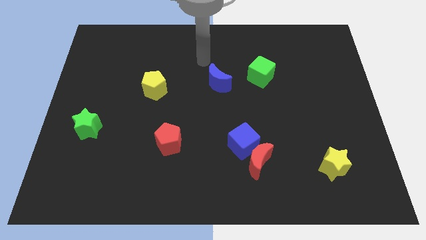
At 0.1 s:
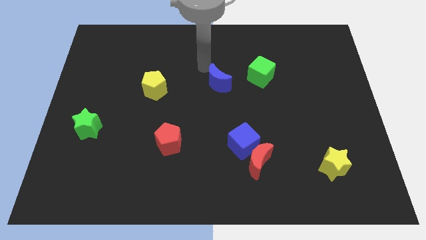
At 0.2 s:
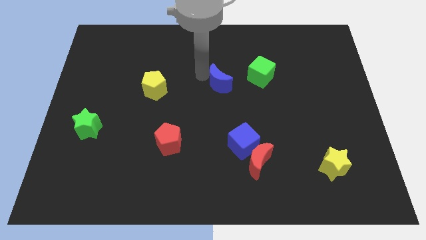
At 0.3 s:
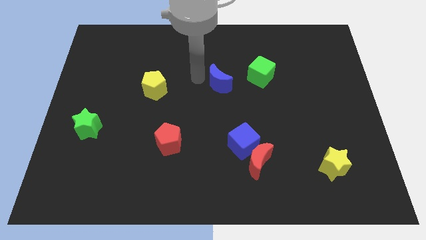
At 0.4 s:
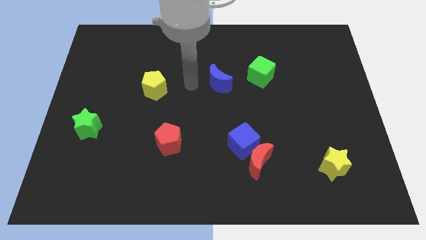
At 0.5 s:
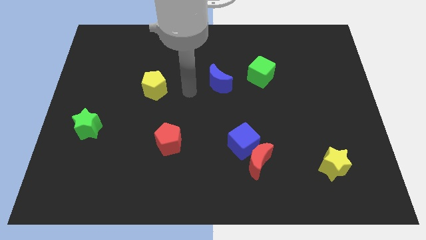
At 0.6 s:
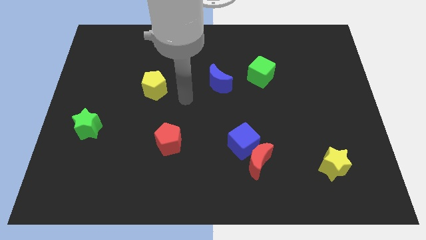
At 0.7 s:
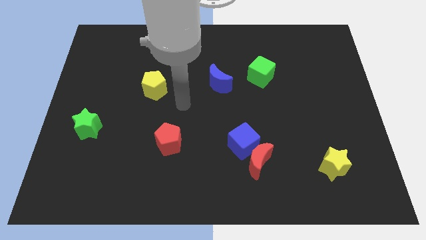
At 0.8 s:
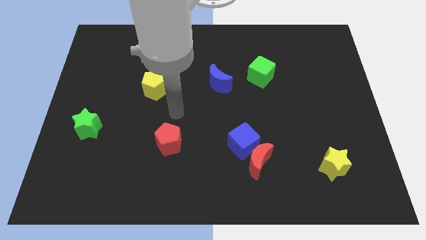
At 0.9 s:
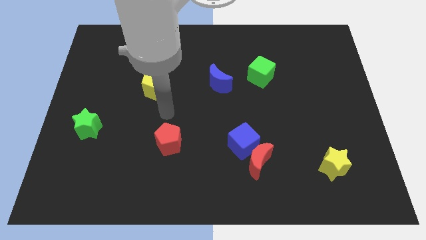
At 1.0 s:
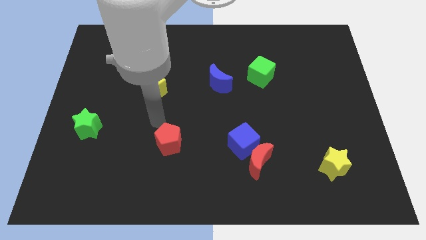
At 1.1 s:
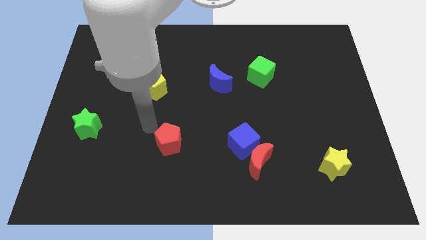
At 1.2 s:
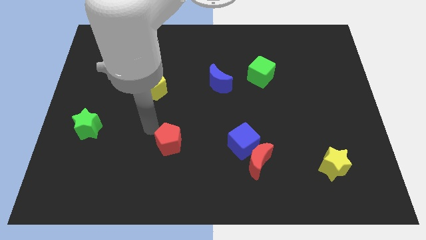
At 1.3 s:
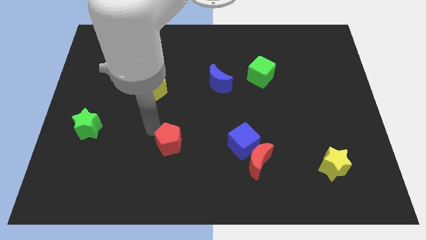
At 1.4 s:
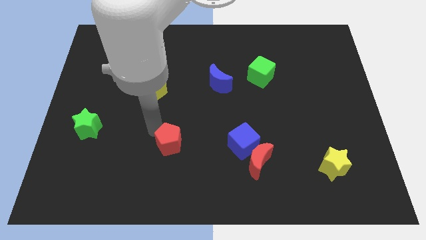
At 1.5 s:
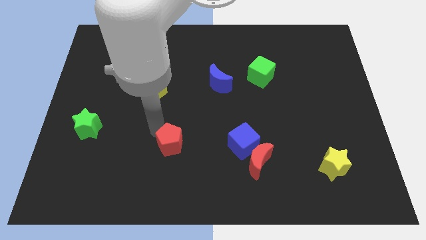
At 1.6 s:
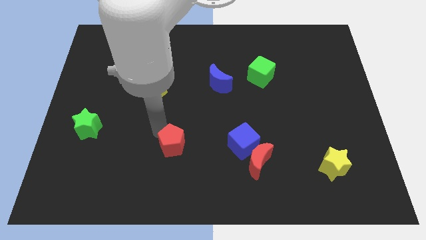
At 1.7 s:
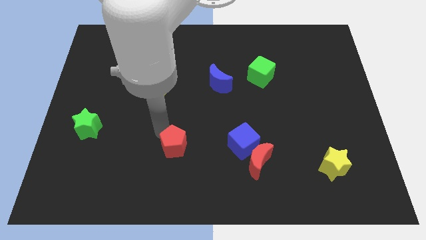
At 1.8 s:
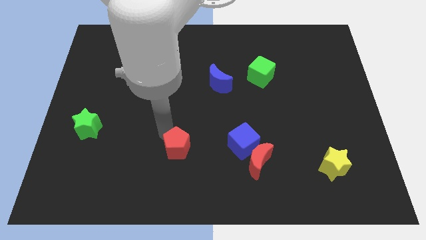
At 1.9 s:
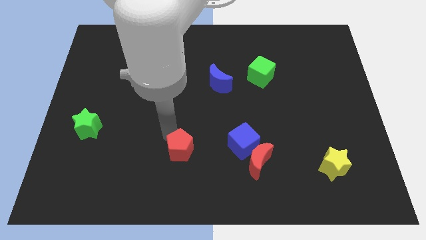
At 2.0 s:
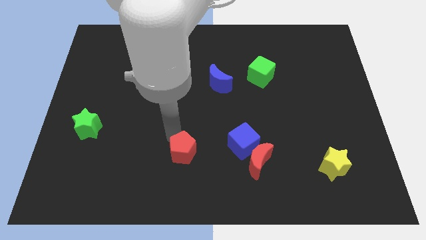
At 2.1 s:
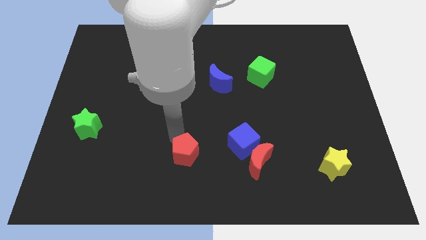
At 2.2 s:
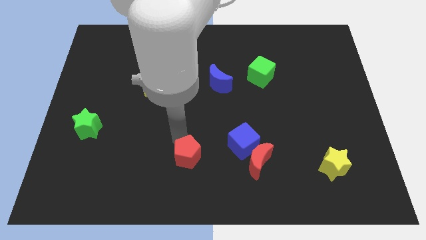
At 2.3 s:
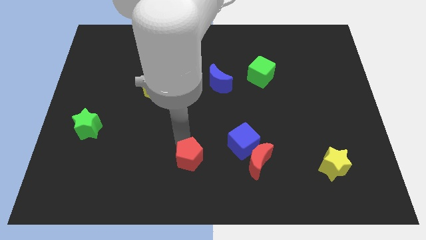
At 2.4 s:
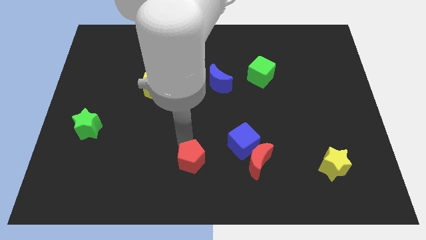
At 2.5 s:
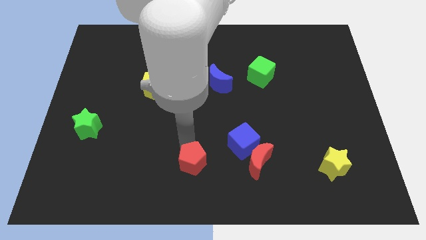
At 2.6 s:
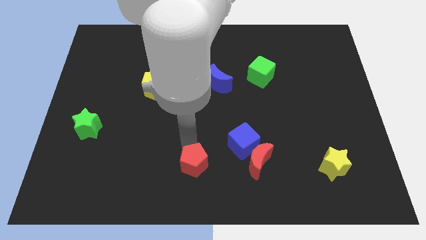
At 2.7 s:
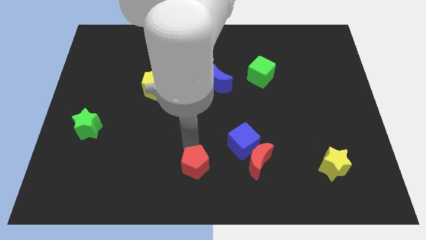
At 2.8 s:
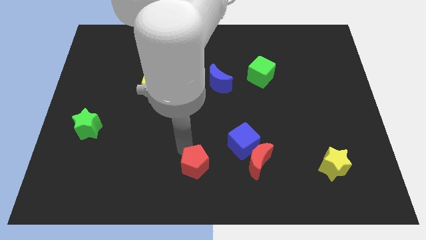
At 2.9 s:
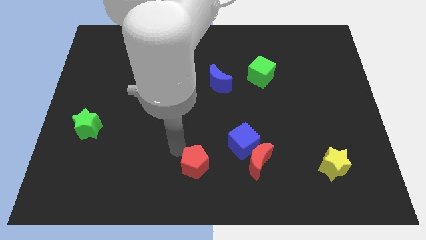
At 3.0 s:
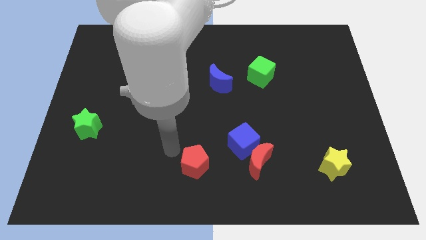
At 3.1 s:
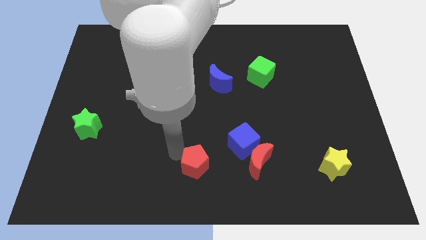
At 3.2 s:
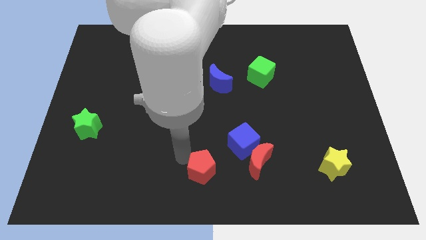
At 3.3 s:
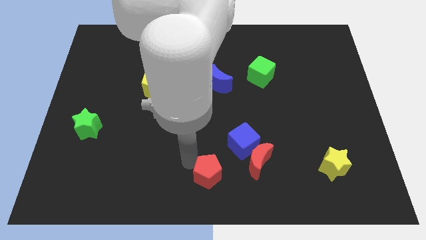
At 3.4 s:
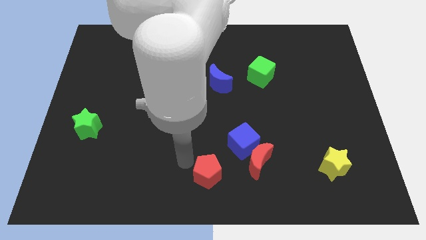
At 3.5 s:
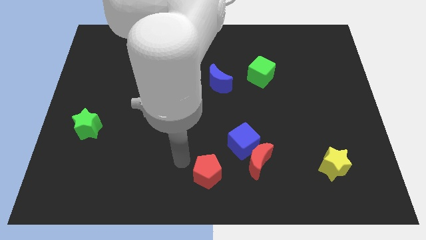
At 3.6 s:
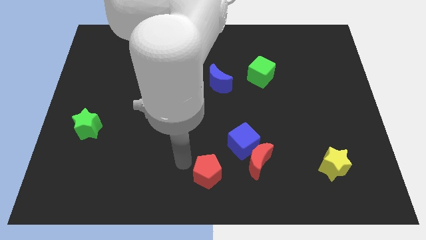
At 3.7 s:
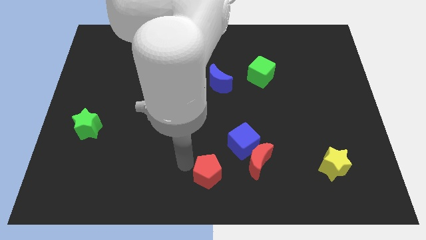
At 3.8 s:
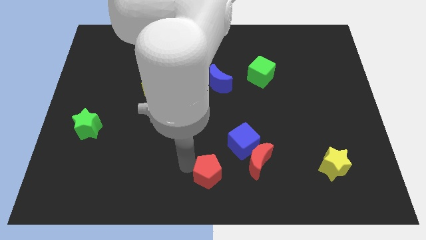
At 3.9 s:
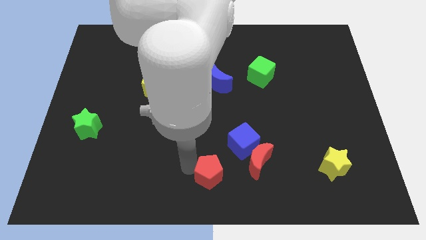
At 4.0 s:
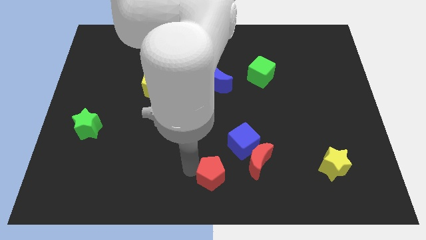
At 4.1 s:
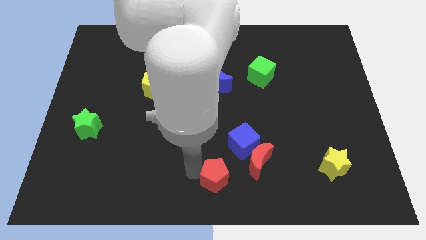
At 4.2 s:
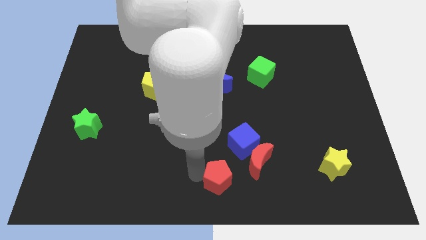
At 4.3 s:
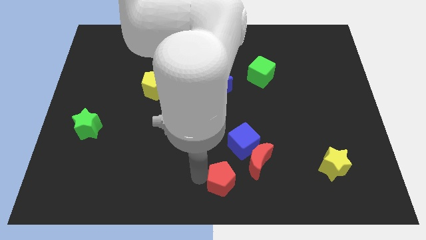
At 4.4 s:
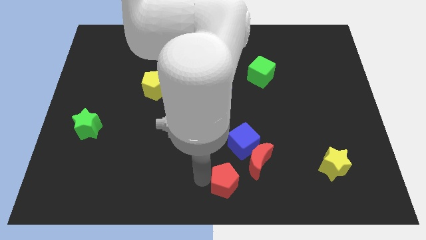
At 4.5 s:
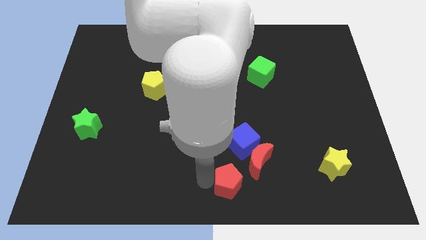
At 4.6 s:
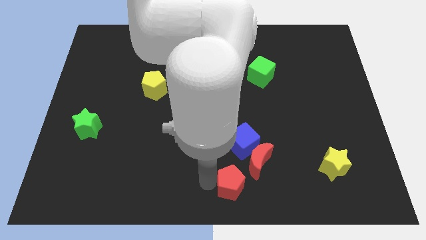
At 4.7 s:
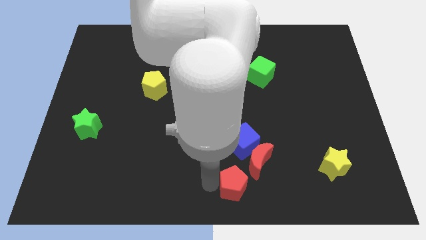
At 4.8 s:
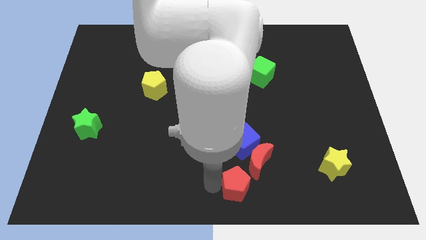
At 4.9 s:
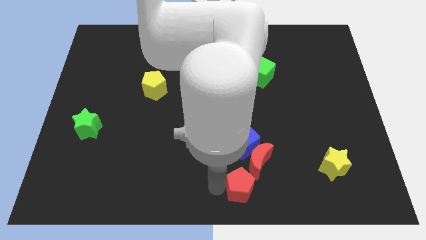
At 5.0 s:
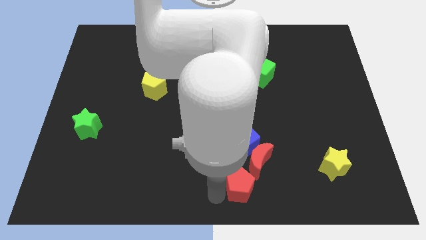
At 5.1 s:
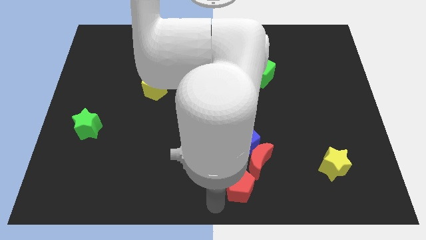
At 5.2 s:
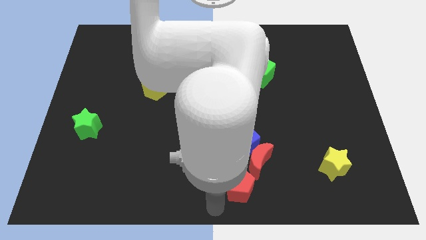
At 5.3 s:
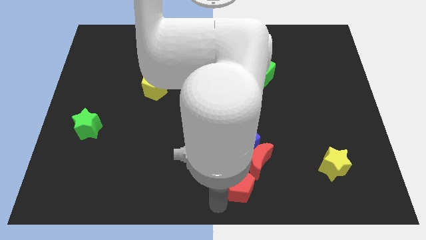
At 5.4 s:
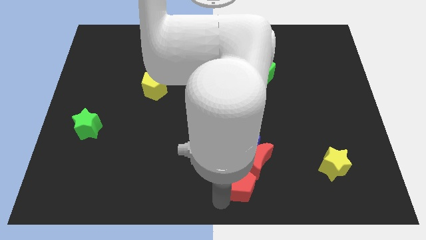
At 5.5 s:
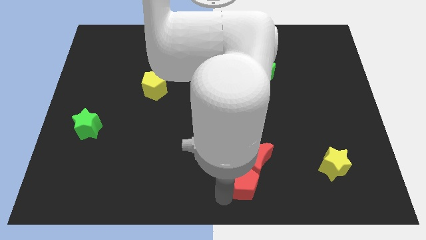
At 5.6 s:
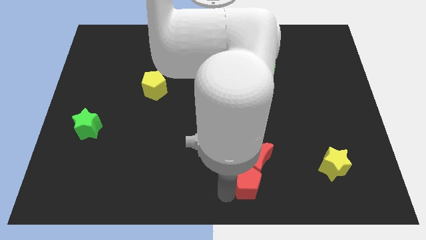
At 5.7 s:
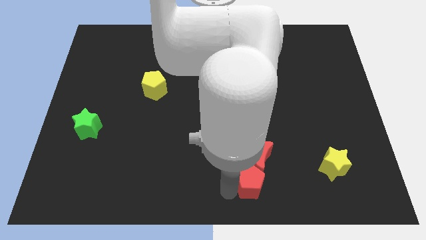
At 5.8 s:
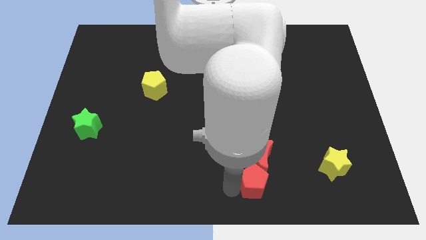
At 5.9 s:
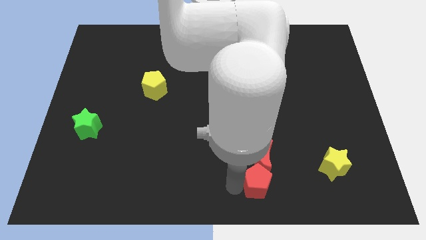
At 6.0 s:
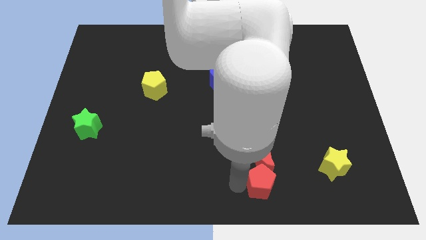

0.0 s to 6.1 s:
push the red pentagon to the bottom right of the blue cube

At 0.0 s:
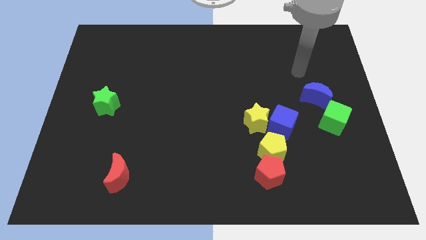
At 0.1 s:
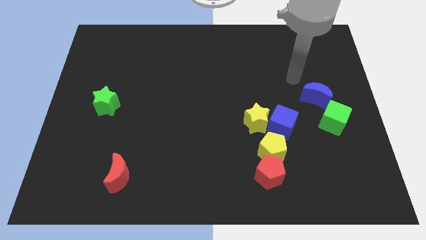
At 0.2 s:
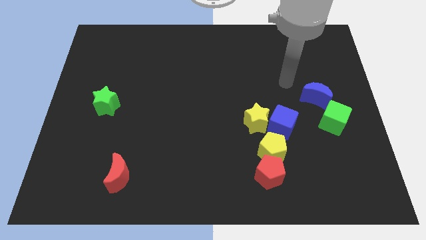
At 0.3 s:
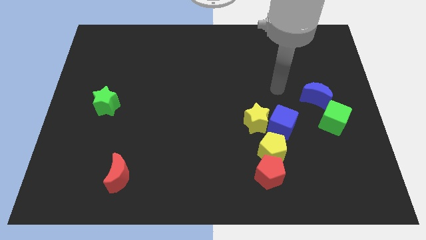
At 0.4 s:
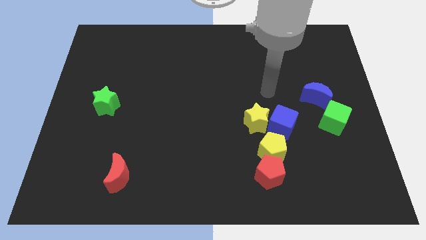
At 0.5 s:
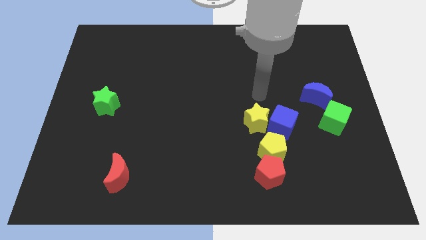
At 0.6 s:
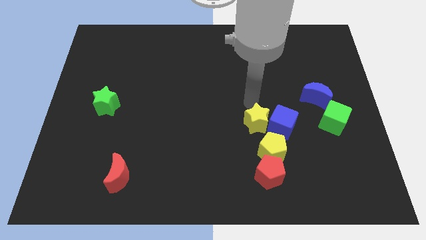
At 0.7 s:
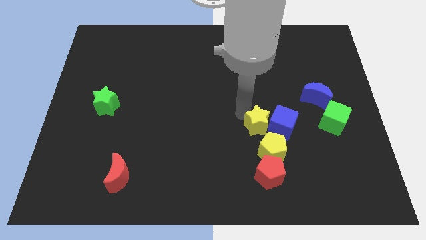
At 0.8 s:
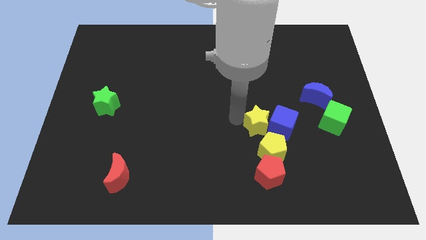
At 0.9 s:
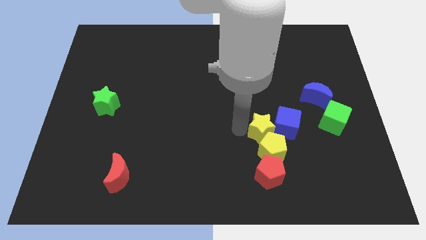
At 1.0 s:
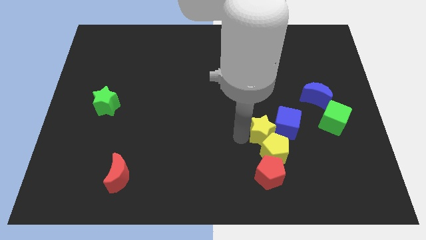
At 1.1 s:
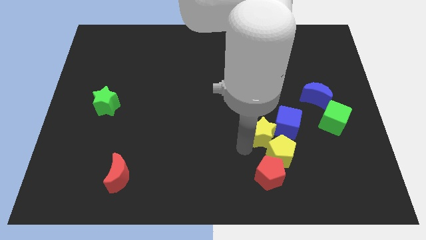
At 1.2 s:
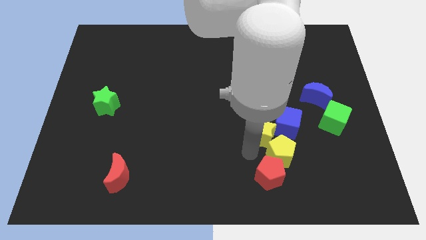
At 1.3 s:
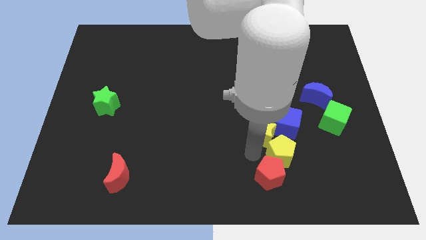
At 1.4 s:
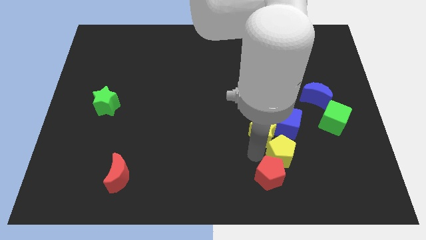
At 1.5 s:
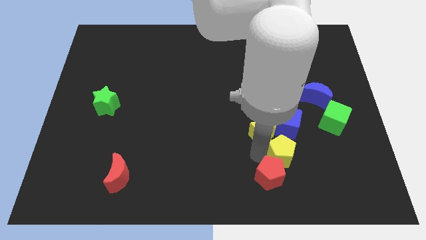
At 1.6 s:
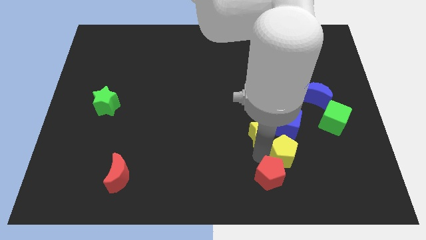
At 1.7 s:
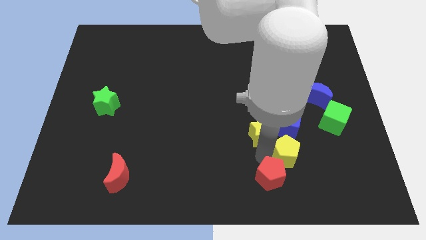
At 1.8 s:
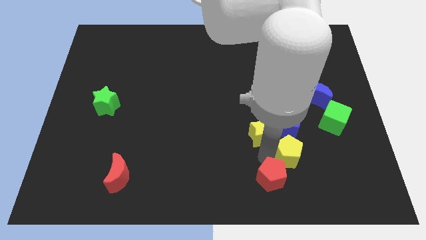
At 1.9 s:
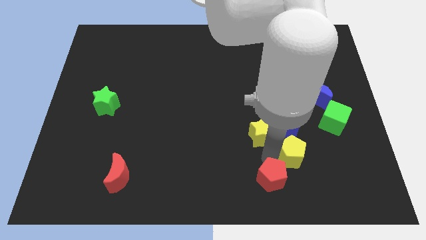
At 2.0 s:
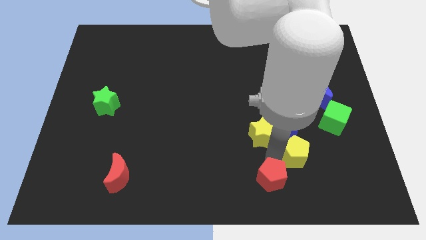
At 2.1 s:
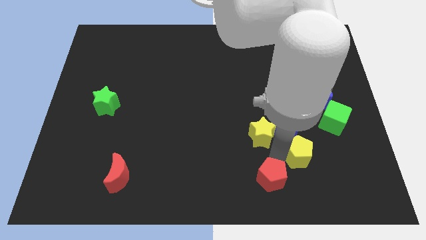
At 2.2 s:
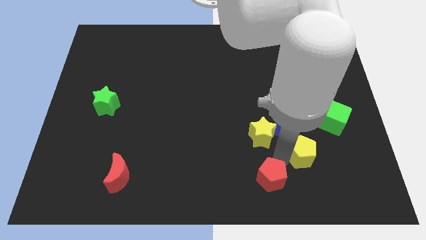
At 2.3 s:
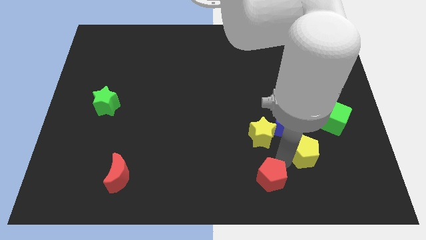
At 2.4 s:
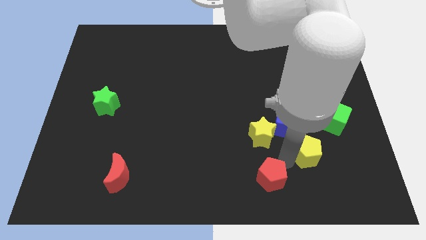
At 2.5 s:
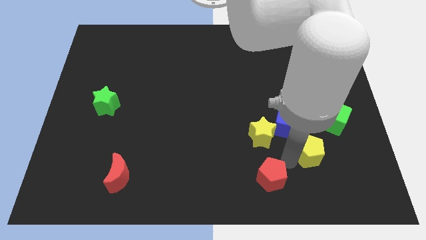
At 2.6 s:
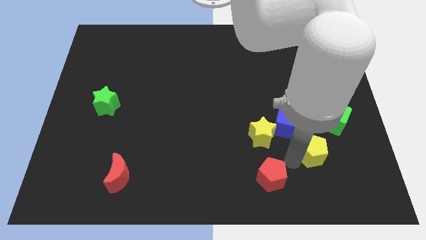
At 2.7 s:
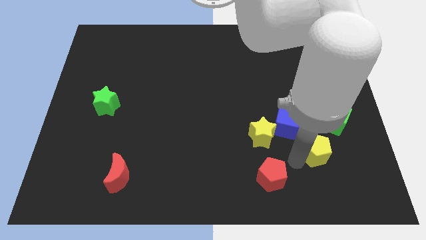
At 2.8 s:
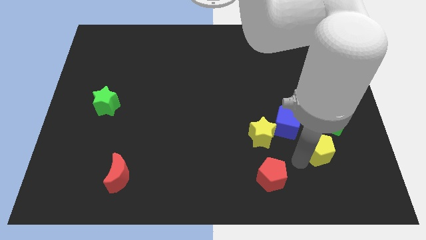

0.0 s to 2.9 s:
slide the yellow pentagon to the bottom of the green cube
